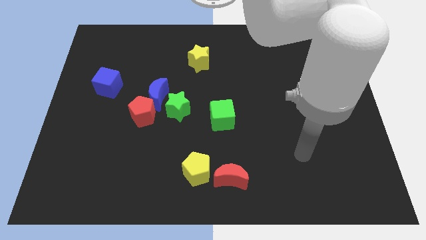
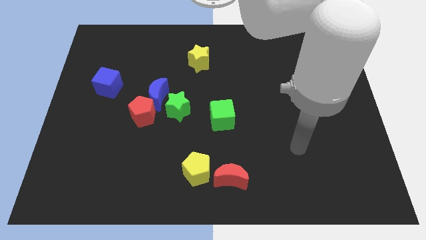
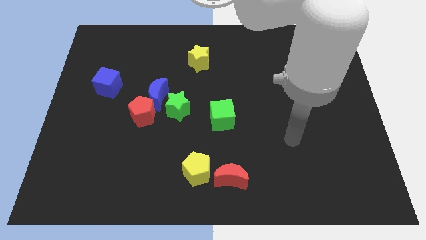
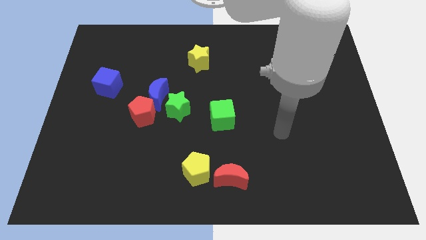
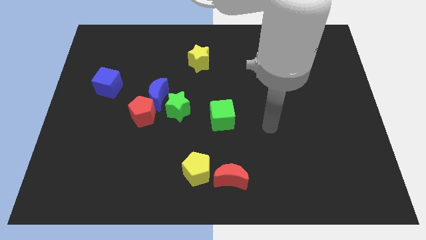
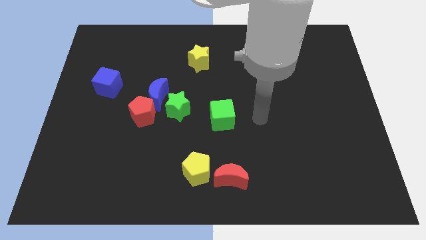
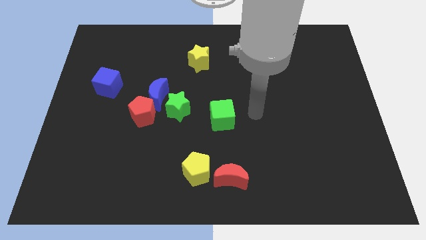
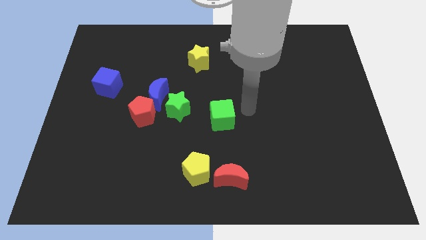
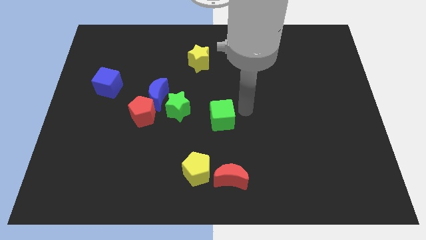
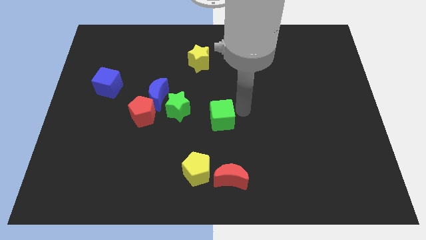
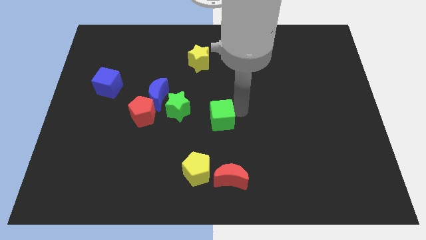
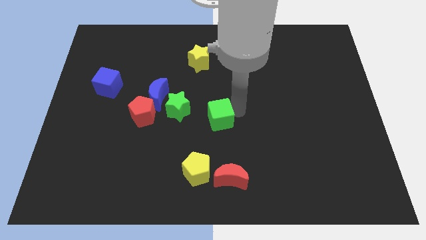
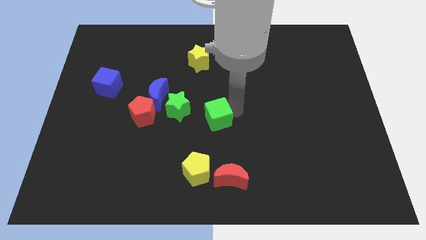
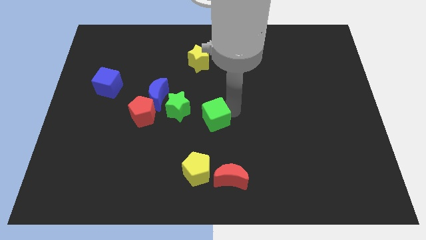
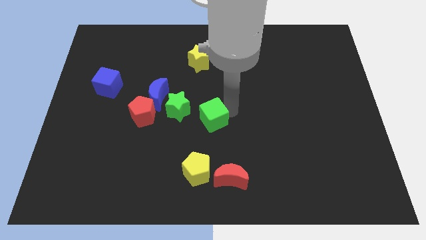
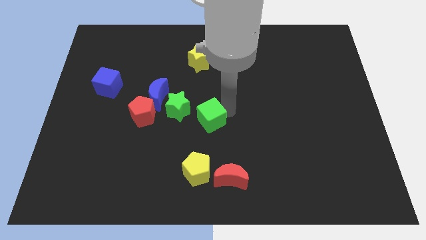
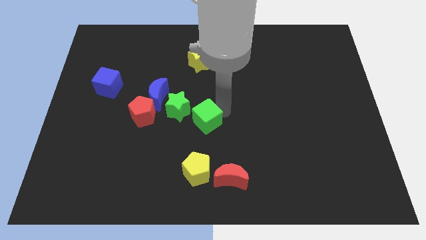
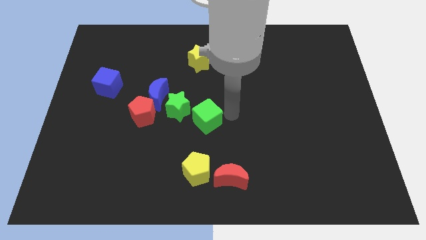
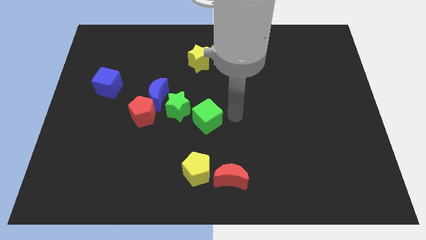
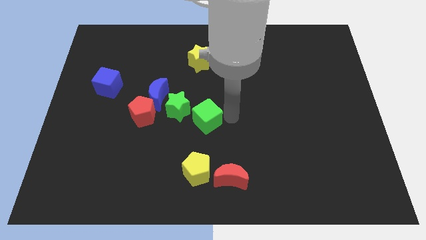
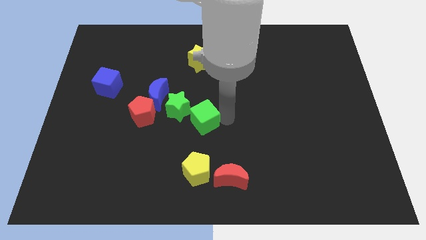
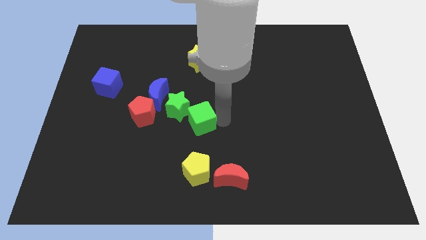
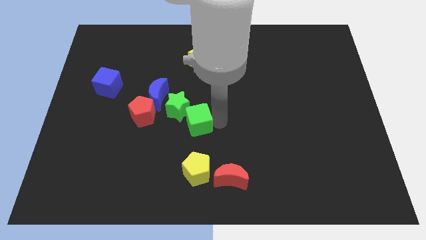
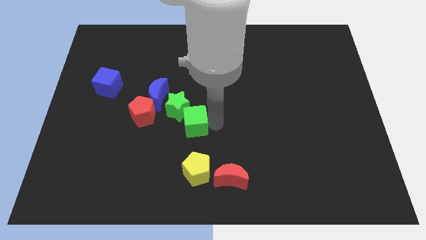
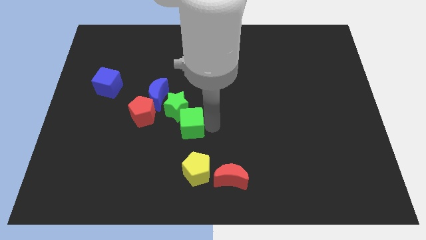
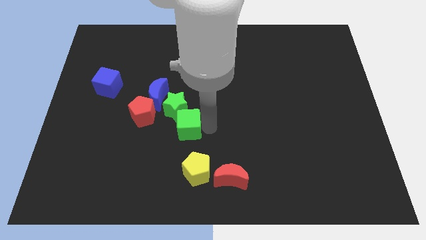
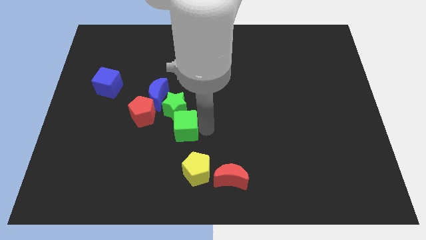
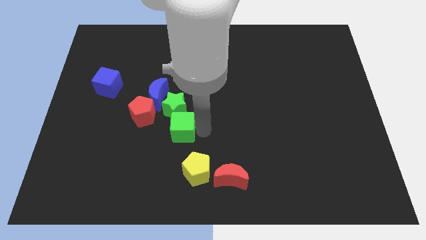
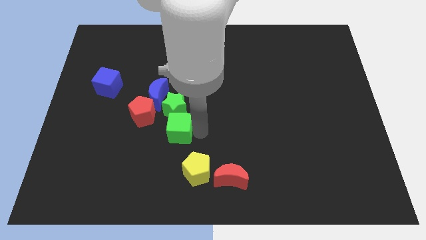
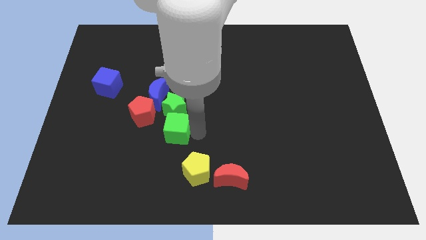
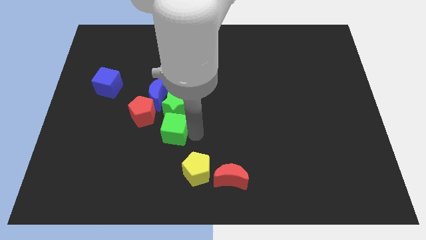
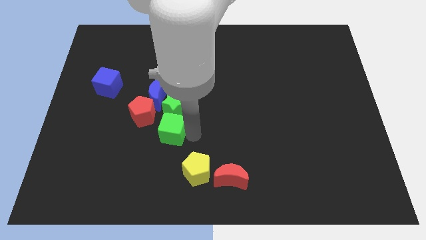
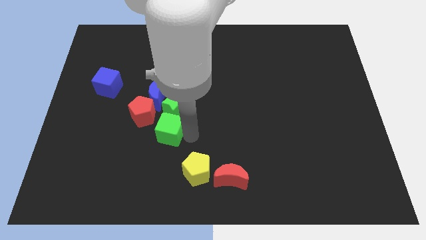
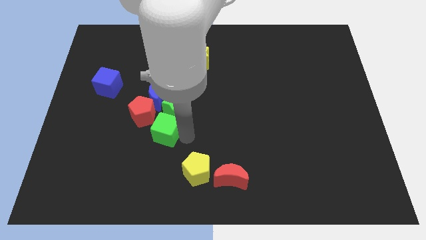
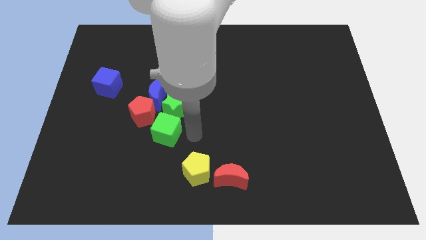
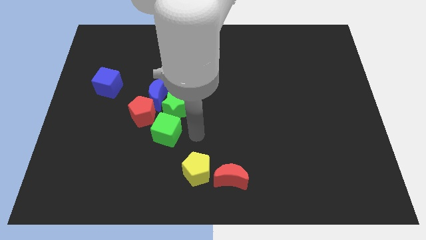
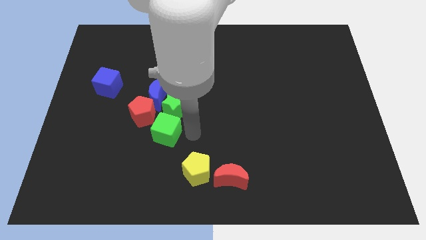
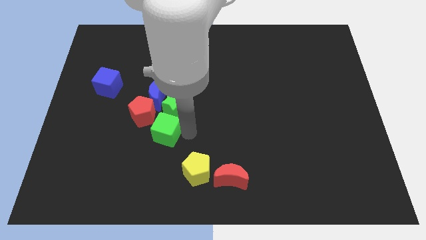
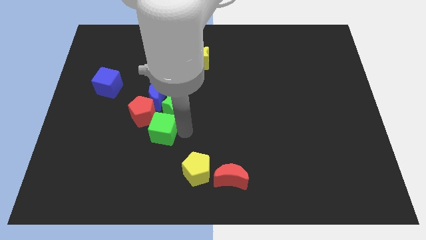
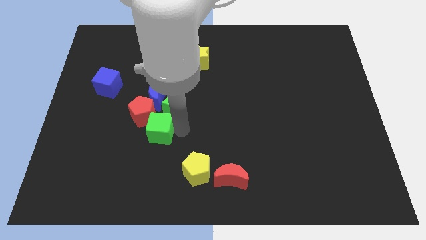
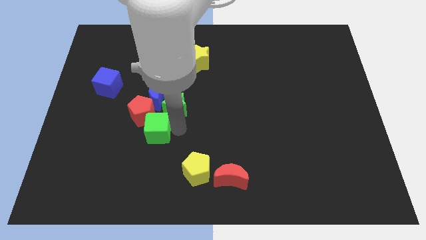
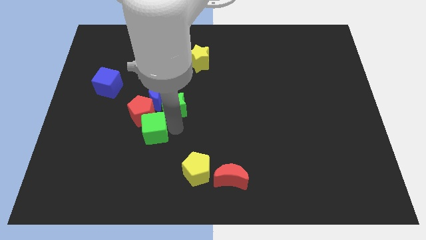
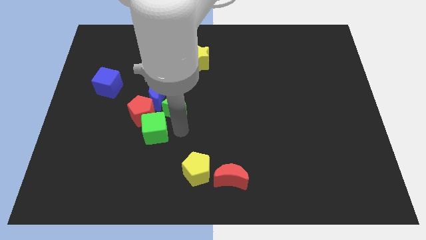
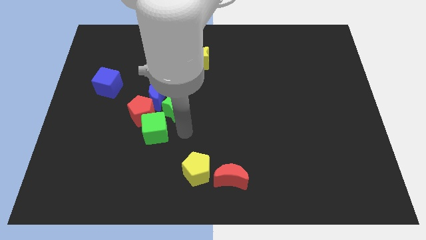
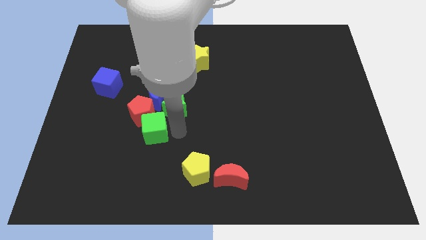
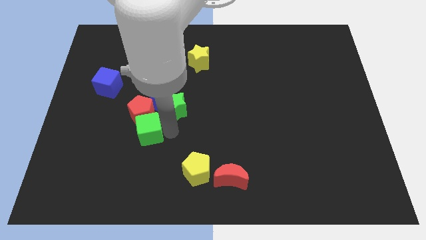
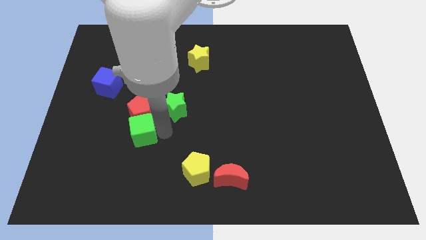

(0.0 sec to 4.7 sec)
slide the green cube to the bottom left side of the red pentagon

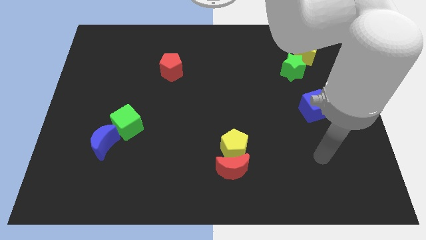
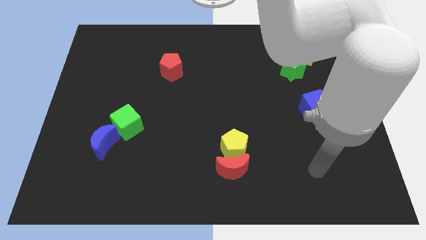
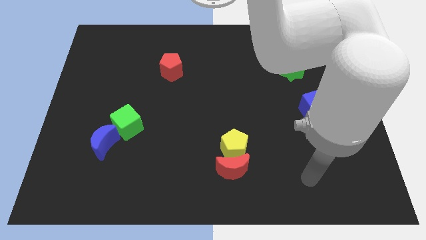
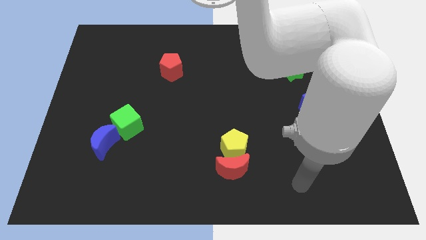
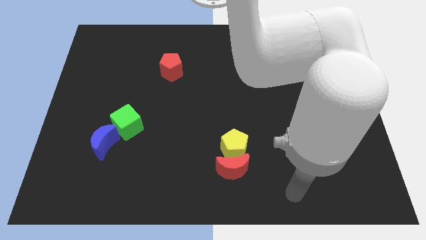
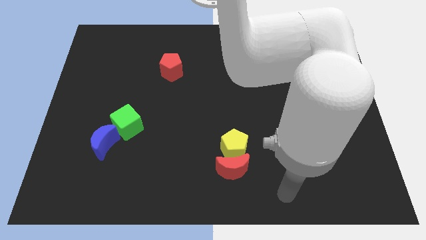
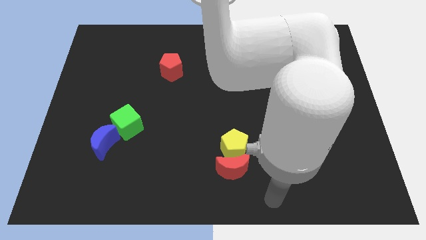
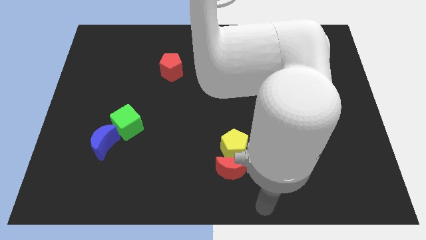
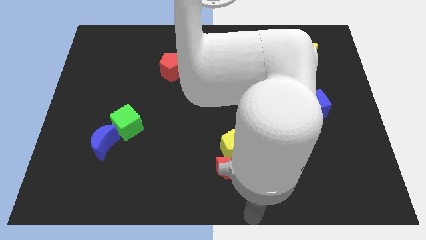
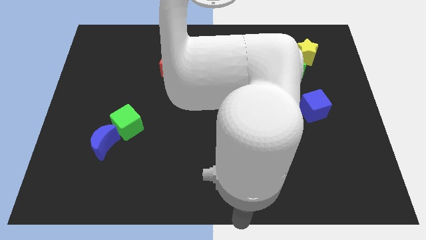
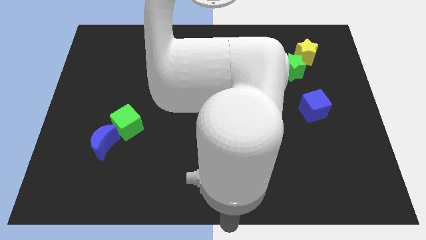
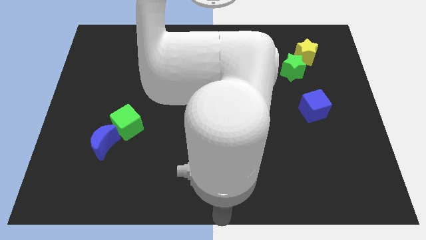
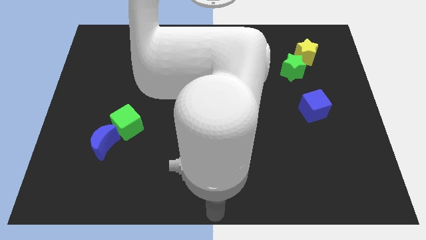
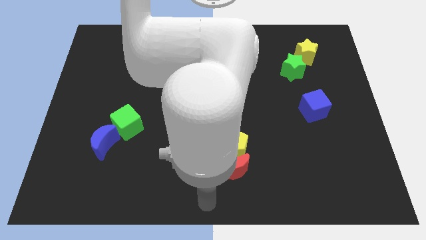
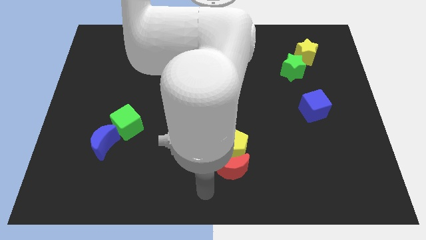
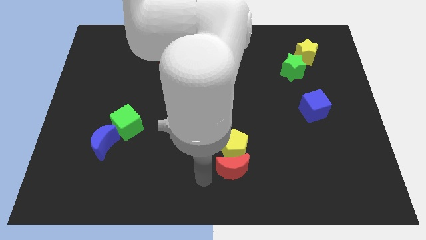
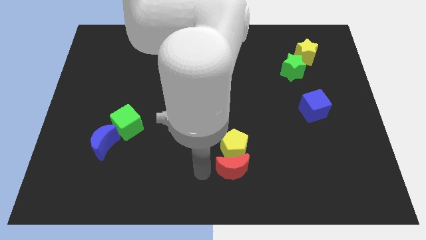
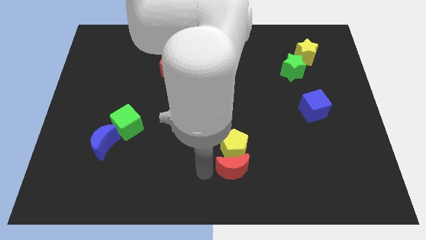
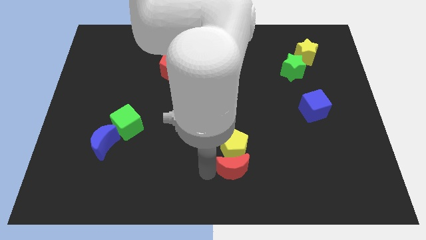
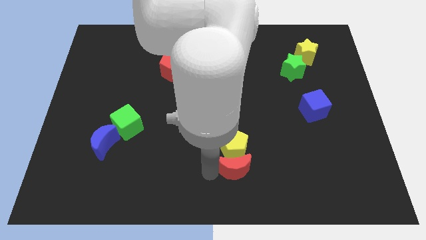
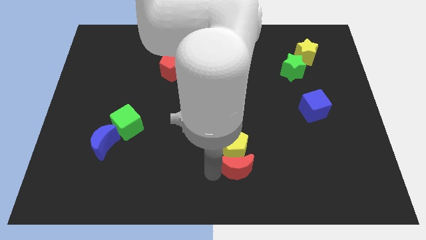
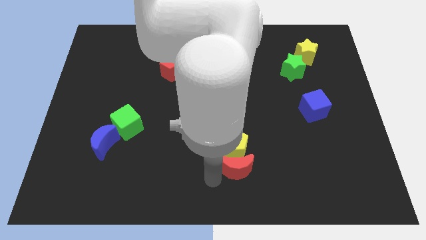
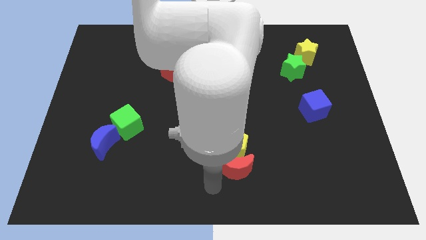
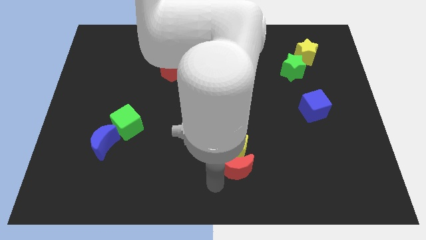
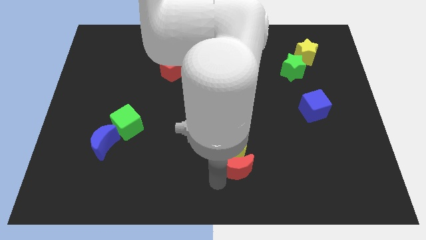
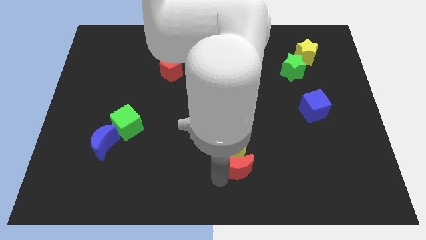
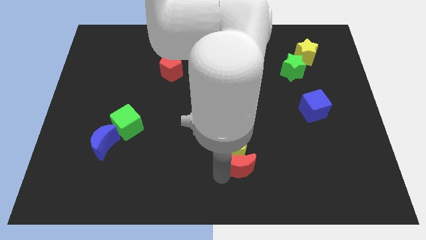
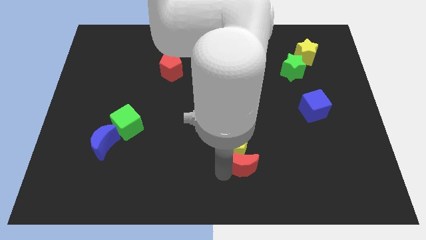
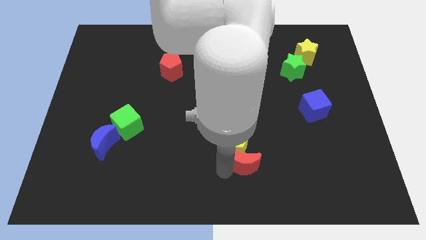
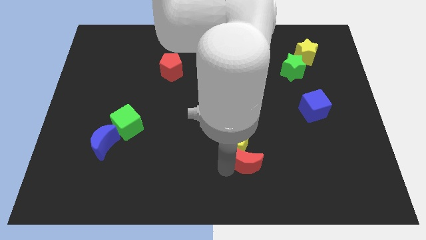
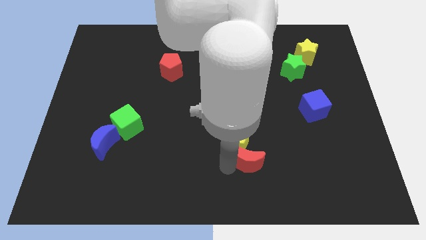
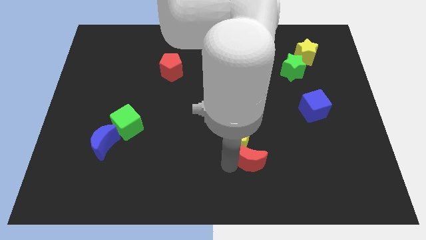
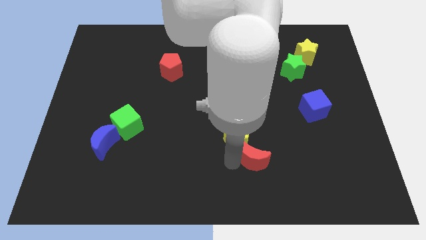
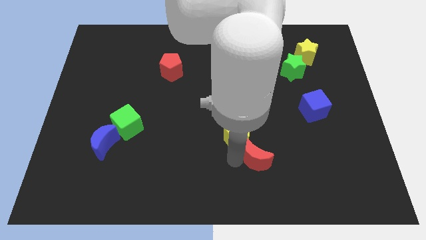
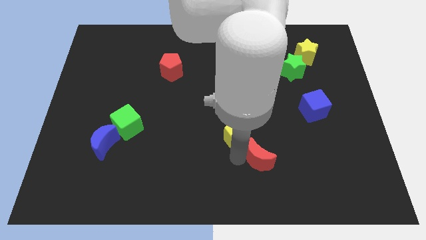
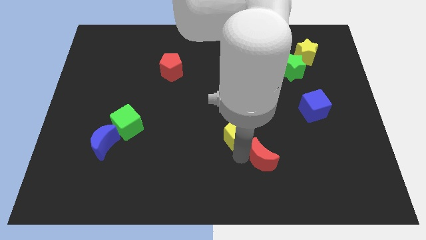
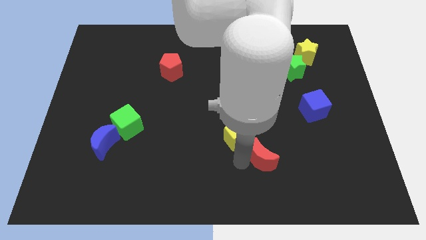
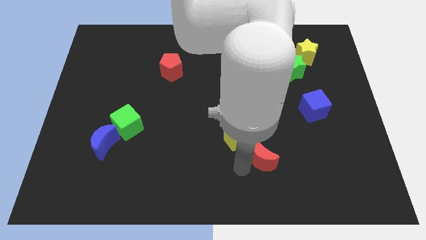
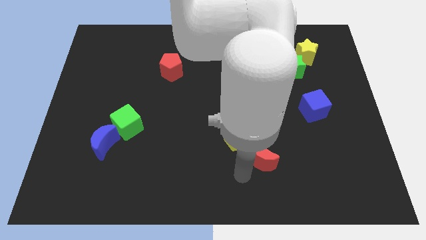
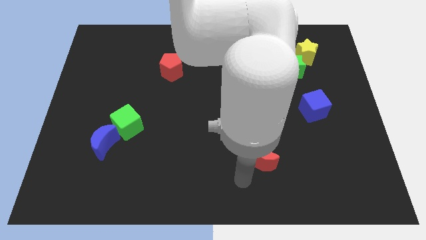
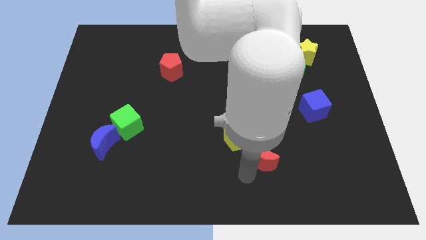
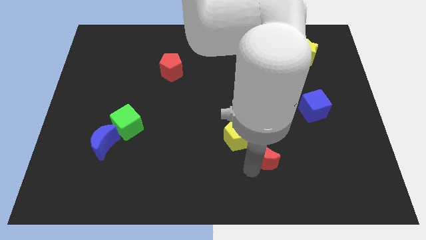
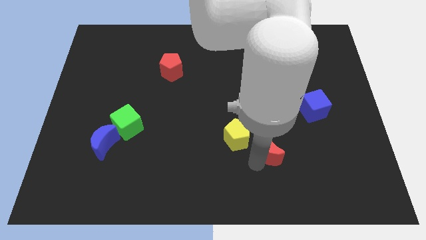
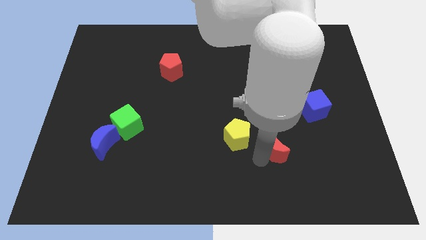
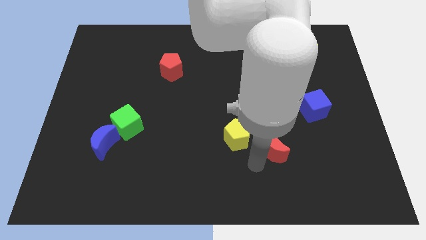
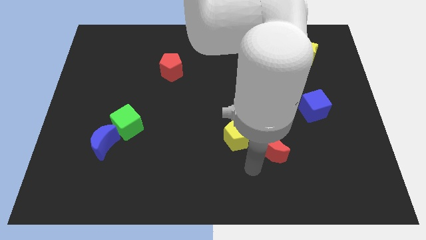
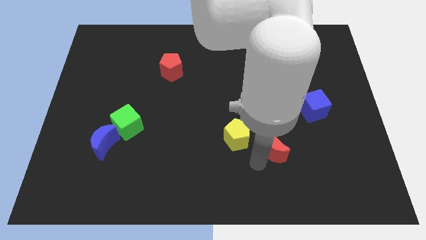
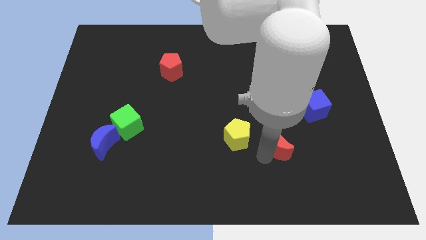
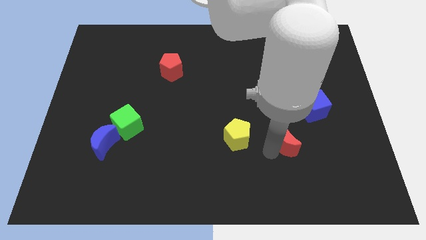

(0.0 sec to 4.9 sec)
slide the red moon diagonally down and to the left of the blue cube
